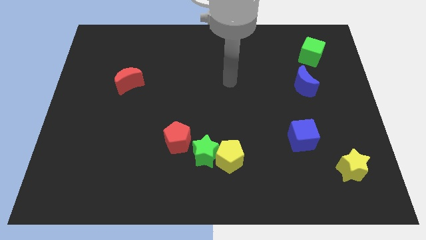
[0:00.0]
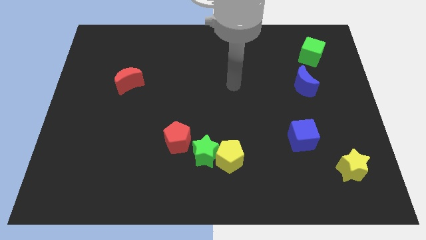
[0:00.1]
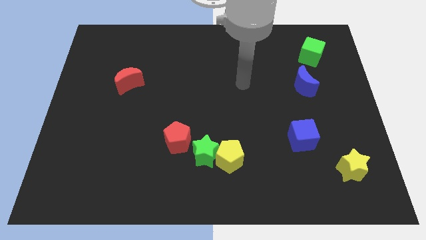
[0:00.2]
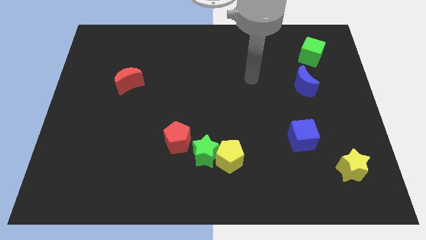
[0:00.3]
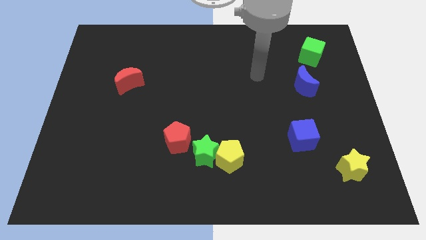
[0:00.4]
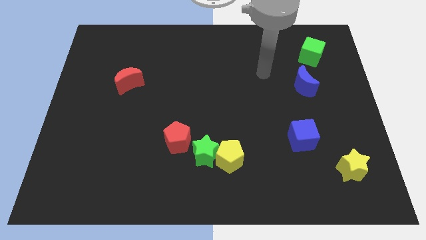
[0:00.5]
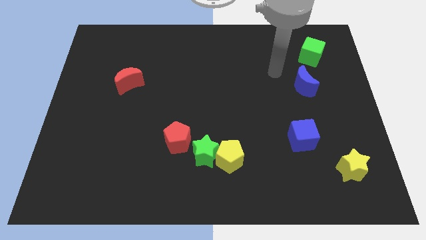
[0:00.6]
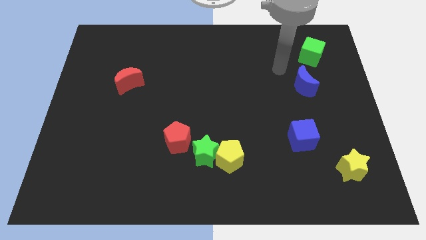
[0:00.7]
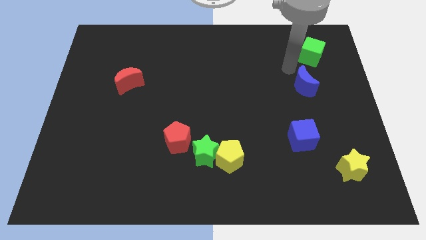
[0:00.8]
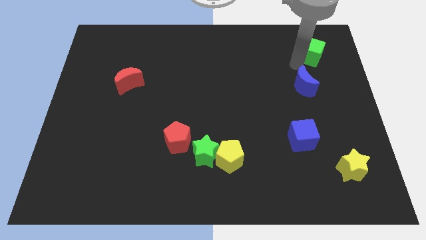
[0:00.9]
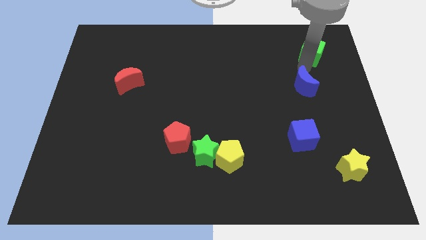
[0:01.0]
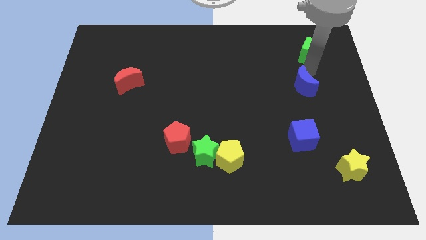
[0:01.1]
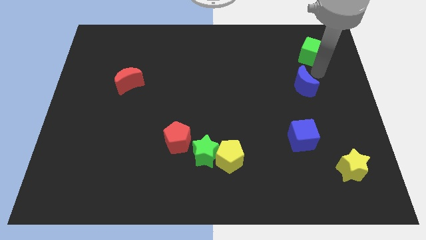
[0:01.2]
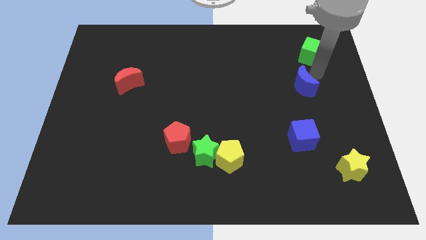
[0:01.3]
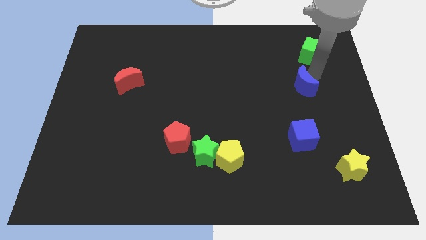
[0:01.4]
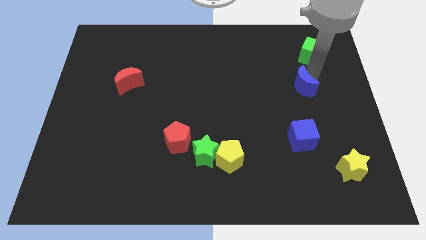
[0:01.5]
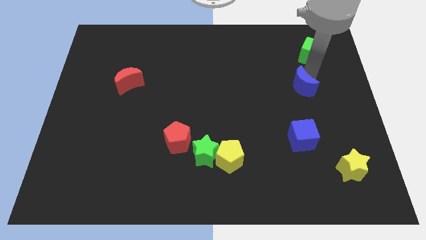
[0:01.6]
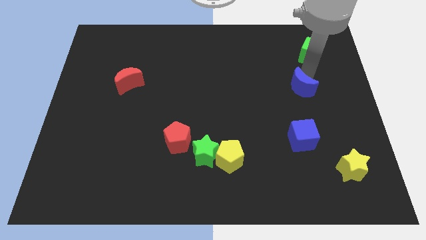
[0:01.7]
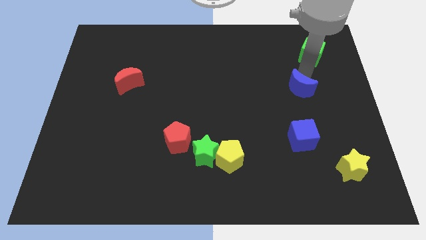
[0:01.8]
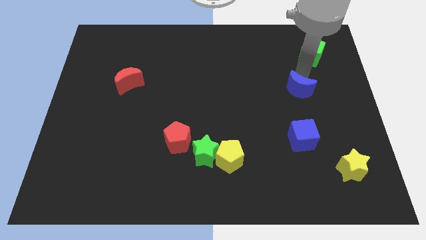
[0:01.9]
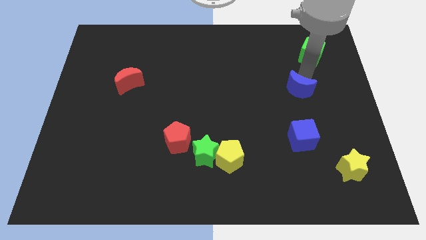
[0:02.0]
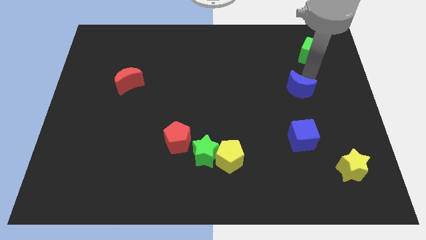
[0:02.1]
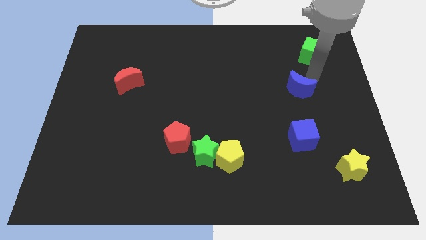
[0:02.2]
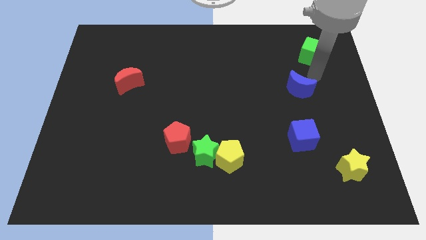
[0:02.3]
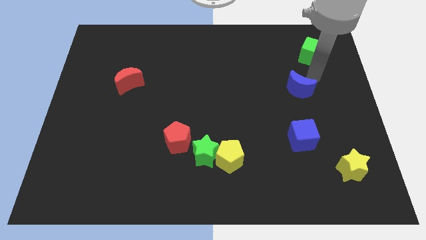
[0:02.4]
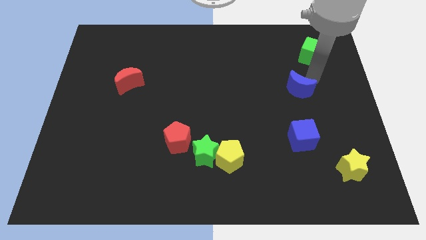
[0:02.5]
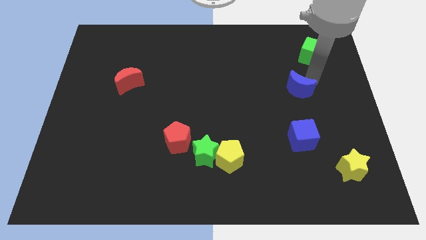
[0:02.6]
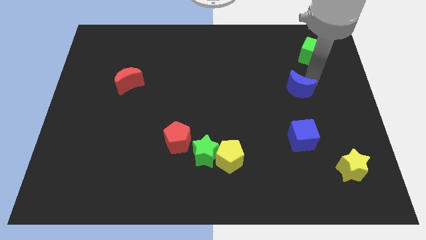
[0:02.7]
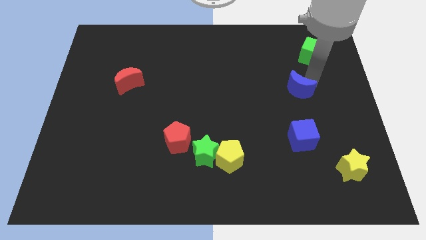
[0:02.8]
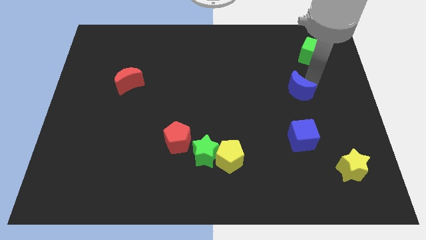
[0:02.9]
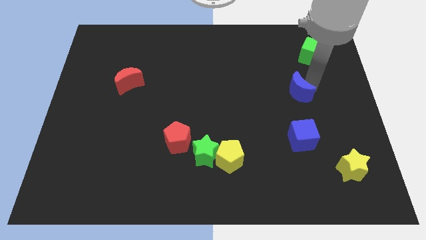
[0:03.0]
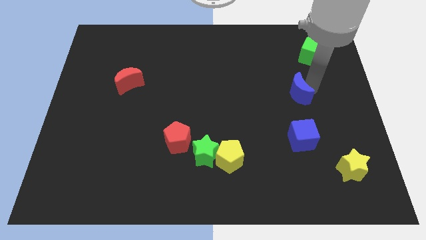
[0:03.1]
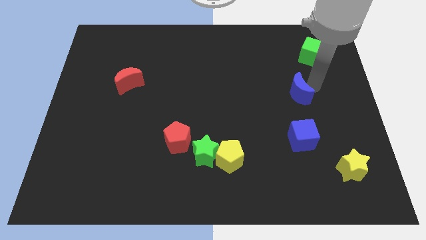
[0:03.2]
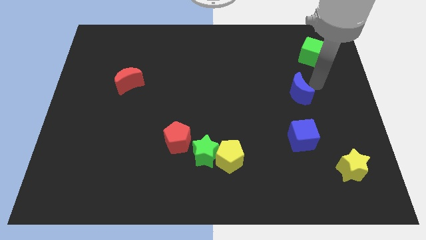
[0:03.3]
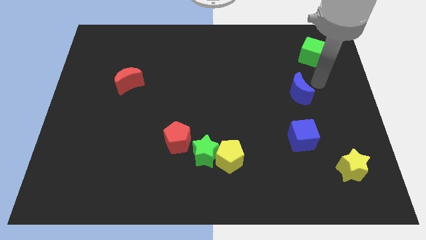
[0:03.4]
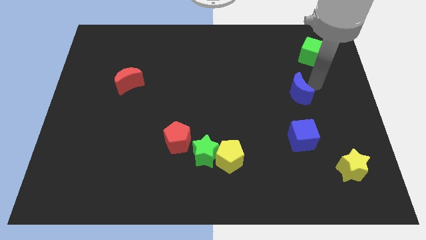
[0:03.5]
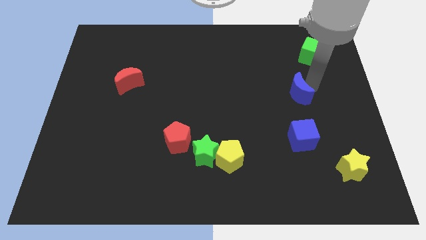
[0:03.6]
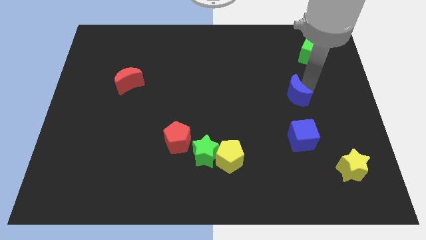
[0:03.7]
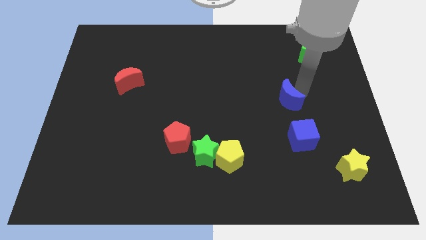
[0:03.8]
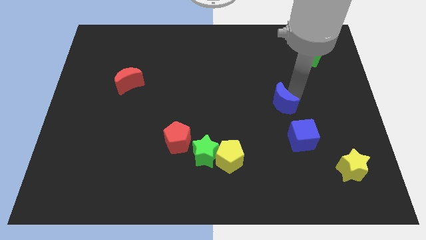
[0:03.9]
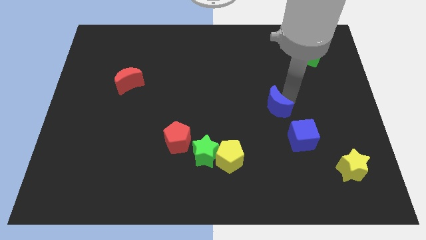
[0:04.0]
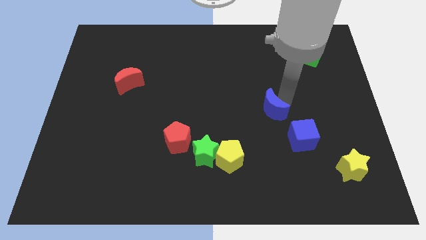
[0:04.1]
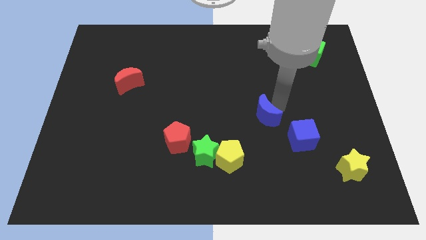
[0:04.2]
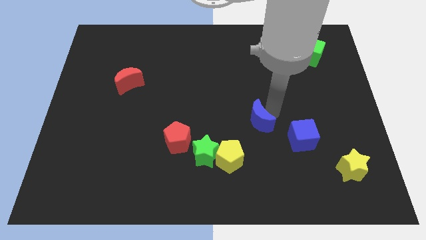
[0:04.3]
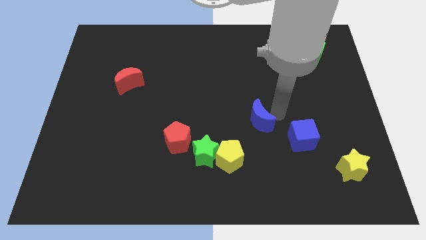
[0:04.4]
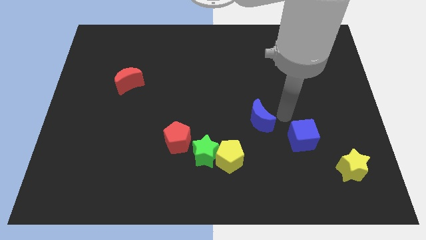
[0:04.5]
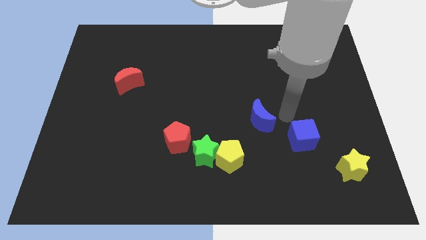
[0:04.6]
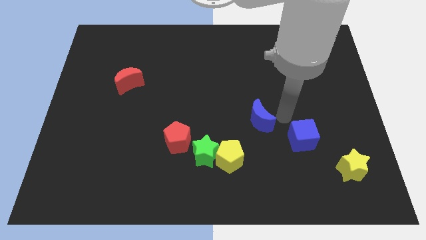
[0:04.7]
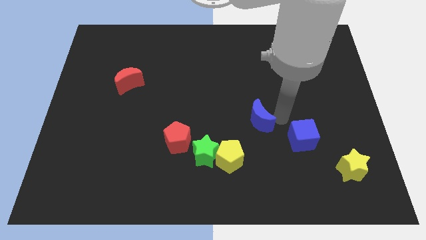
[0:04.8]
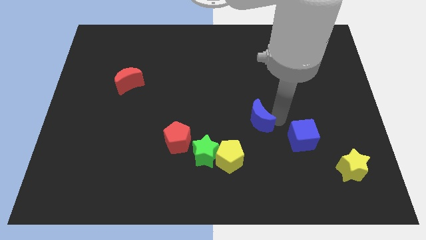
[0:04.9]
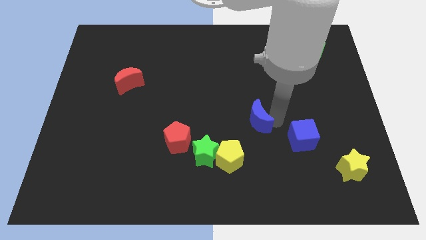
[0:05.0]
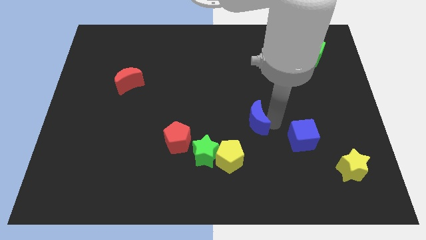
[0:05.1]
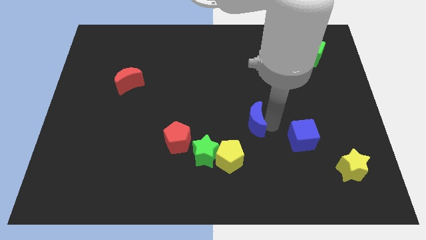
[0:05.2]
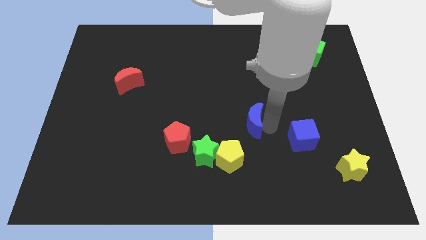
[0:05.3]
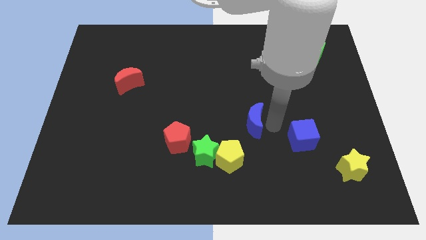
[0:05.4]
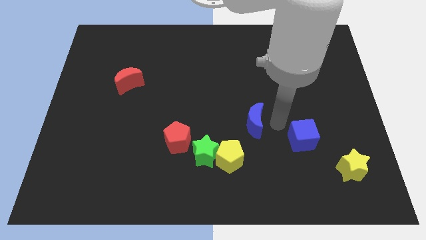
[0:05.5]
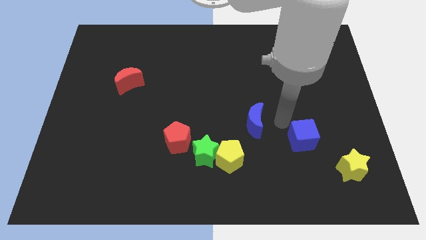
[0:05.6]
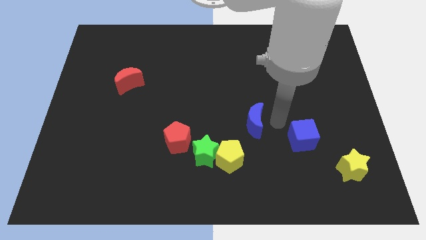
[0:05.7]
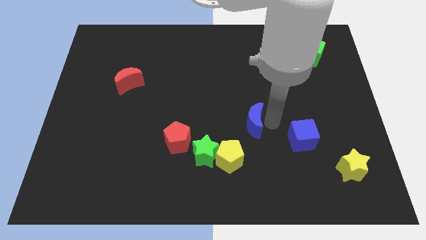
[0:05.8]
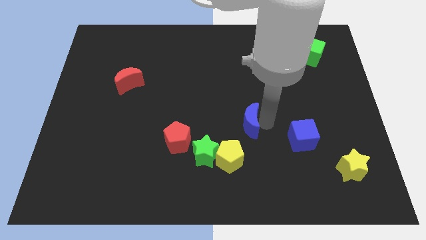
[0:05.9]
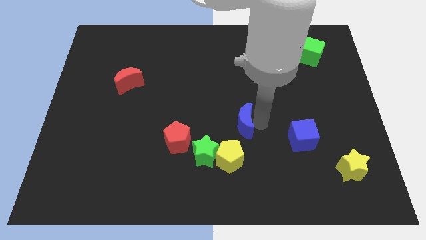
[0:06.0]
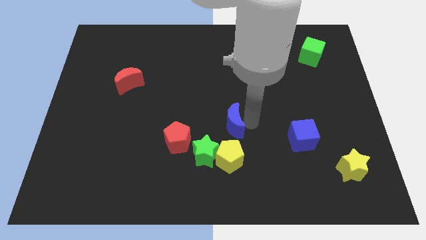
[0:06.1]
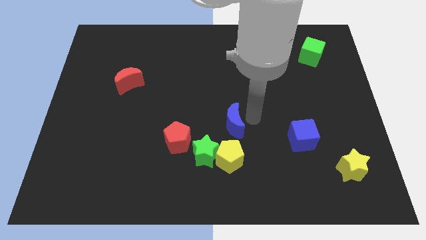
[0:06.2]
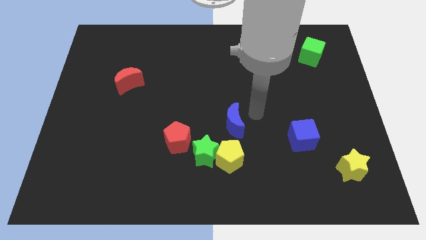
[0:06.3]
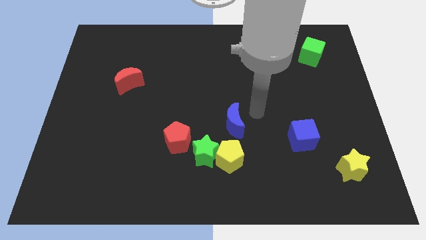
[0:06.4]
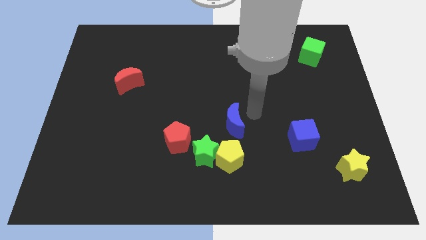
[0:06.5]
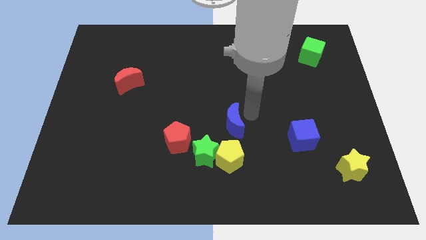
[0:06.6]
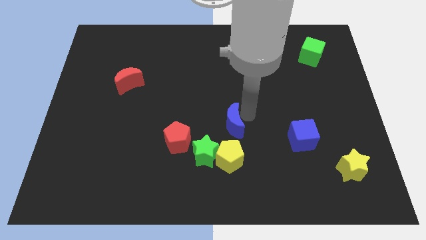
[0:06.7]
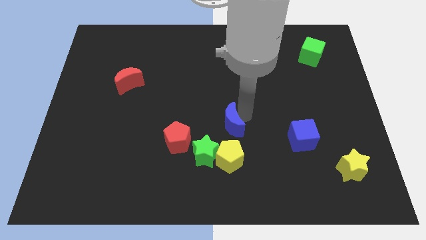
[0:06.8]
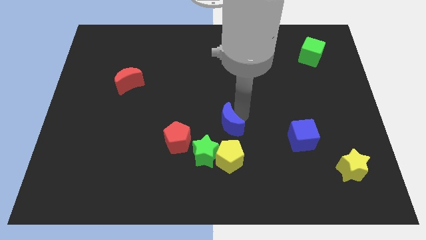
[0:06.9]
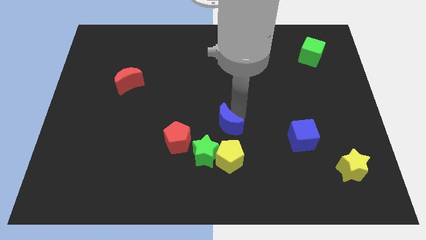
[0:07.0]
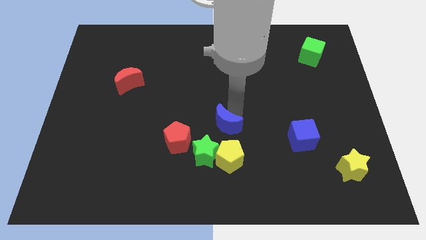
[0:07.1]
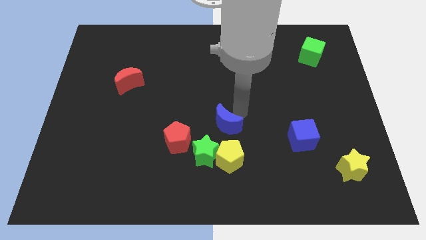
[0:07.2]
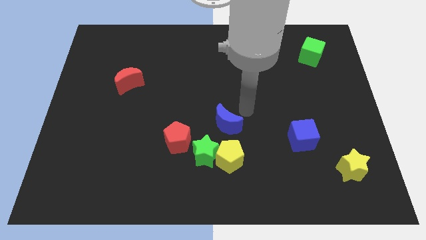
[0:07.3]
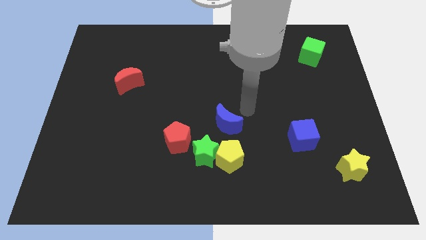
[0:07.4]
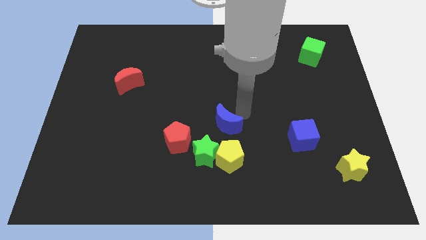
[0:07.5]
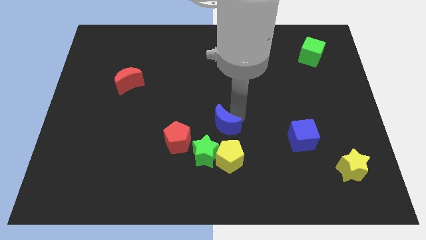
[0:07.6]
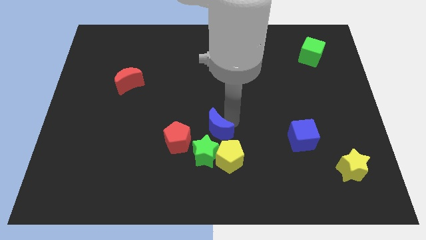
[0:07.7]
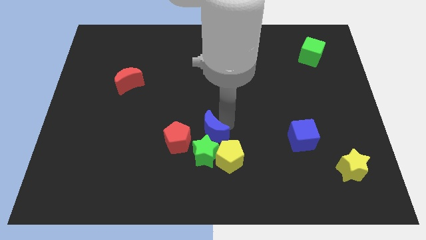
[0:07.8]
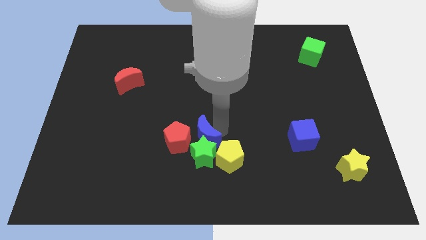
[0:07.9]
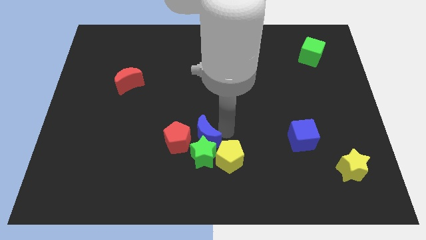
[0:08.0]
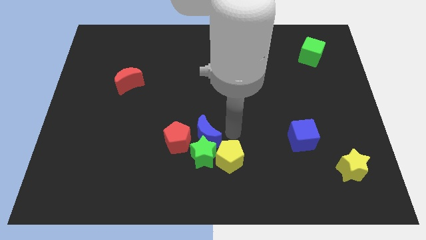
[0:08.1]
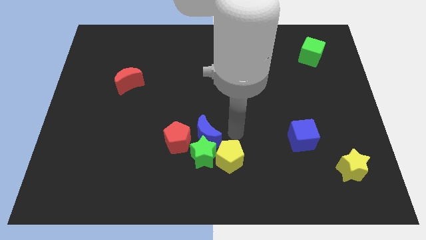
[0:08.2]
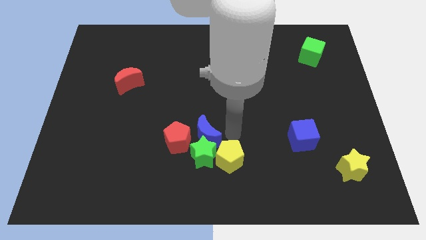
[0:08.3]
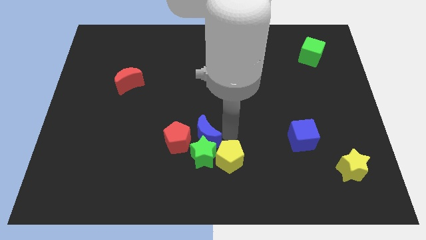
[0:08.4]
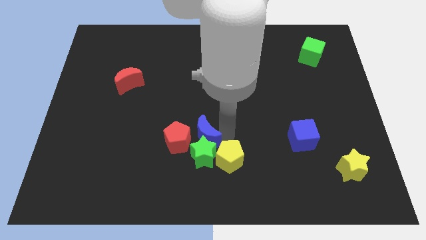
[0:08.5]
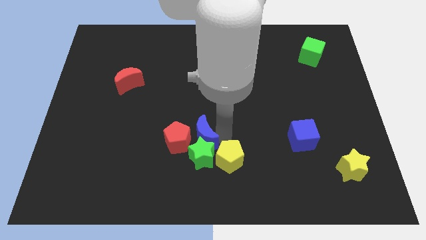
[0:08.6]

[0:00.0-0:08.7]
push the blue moon next to the red pentagon
